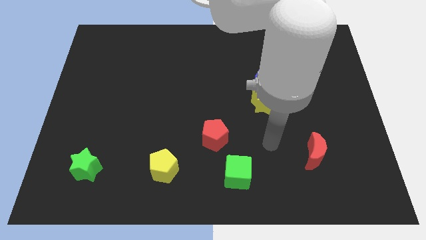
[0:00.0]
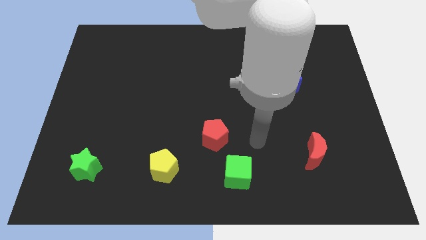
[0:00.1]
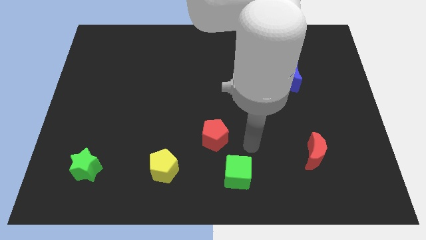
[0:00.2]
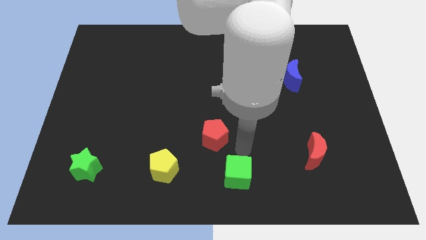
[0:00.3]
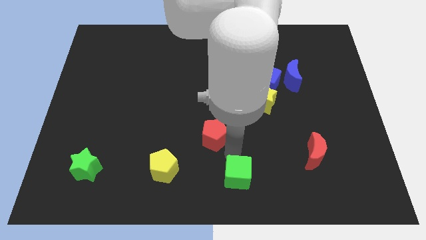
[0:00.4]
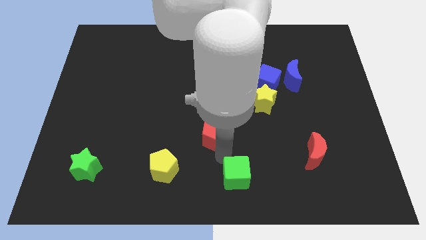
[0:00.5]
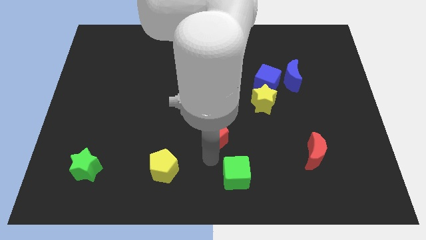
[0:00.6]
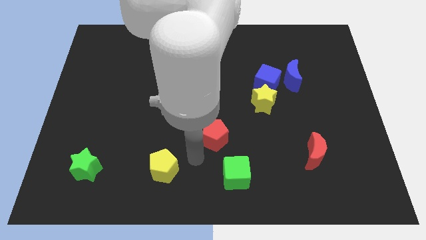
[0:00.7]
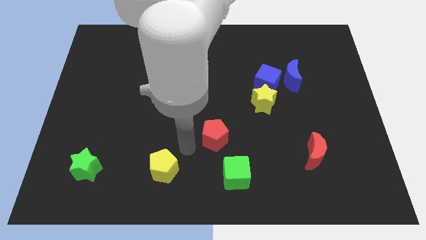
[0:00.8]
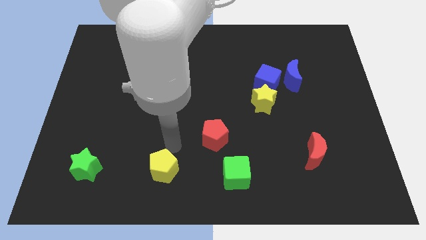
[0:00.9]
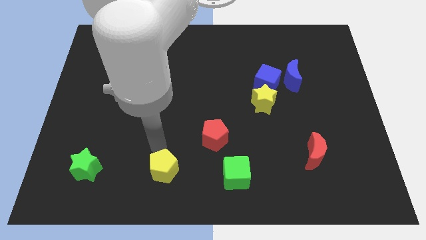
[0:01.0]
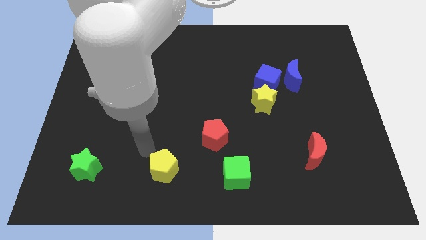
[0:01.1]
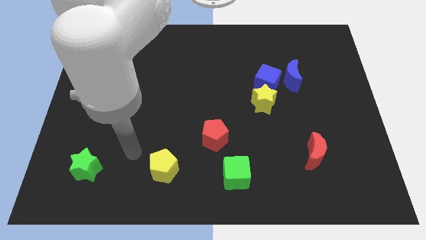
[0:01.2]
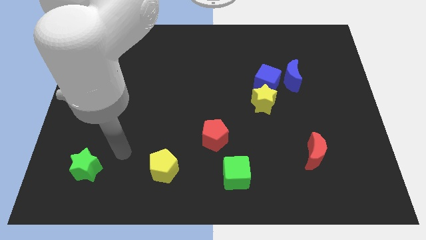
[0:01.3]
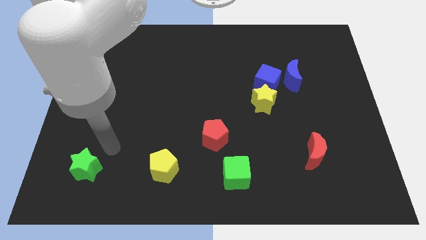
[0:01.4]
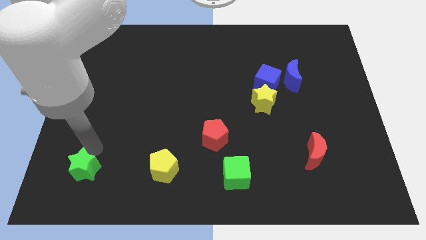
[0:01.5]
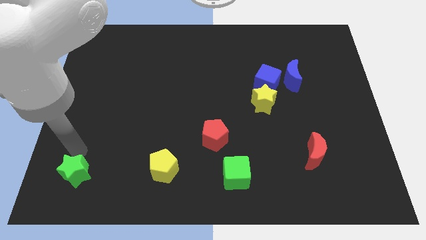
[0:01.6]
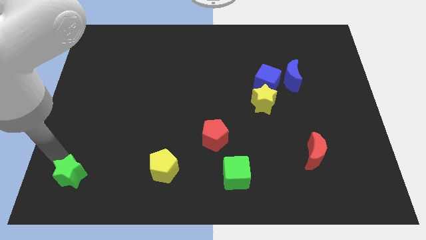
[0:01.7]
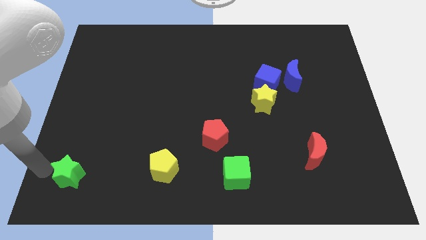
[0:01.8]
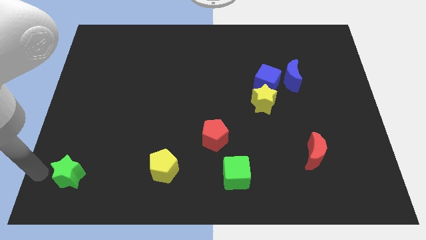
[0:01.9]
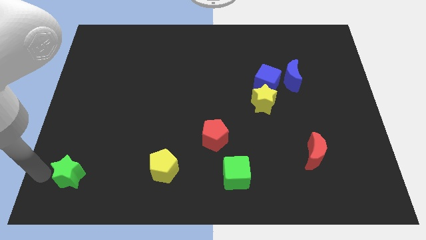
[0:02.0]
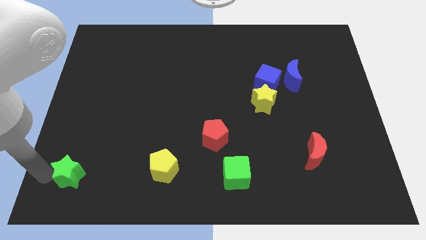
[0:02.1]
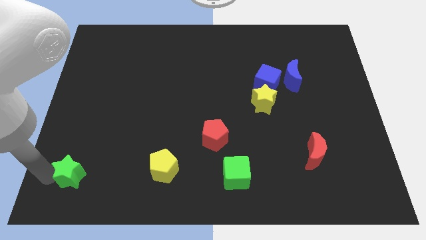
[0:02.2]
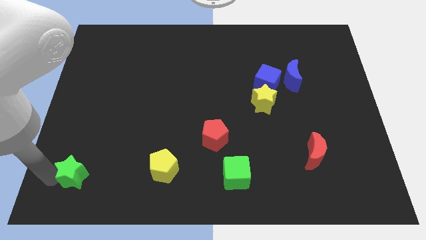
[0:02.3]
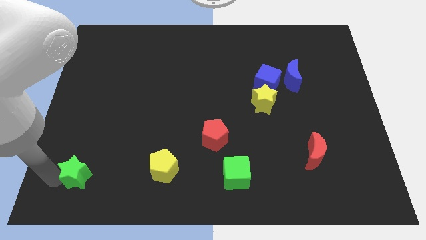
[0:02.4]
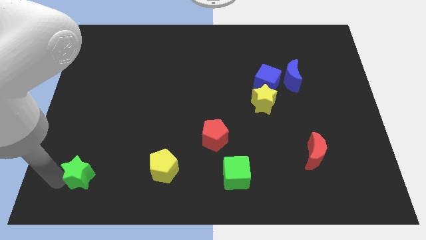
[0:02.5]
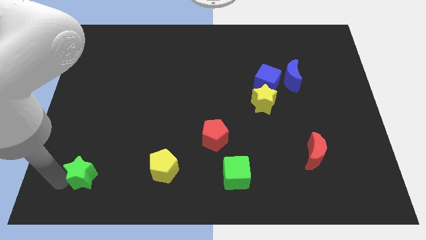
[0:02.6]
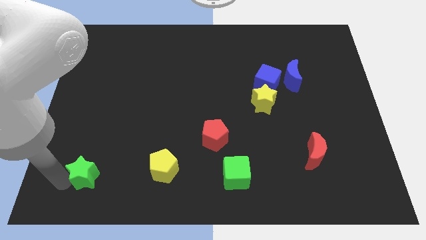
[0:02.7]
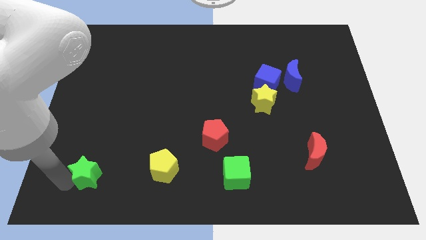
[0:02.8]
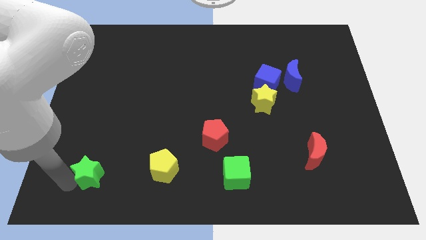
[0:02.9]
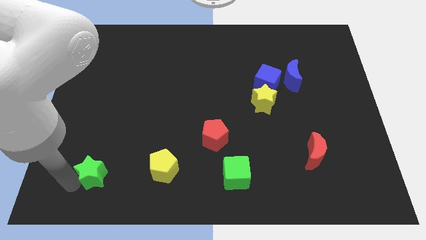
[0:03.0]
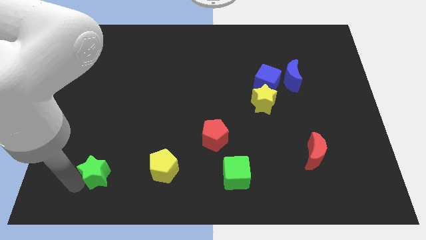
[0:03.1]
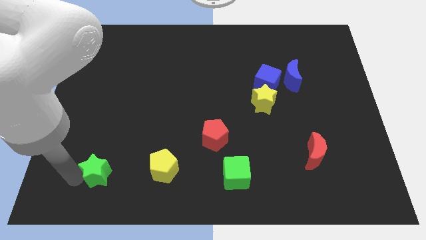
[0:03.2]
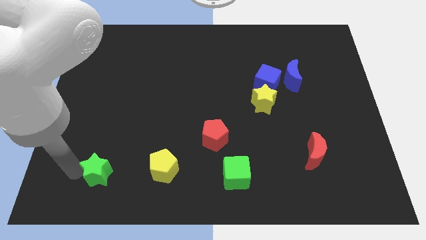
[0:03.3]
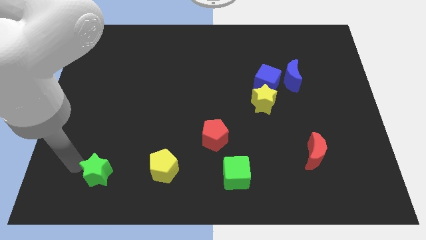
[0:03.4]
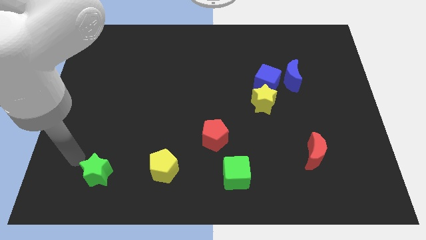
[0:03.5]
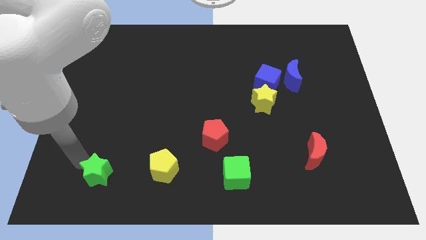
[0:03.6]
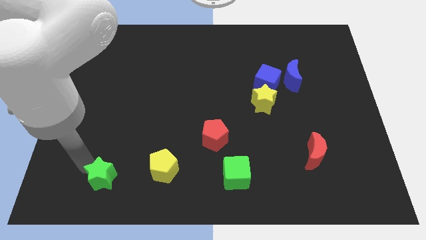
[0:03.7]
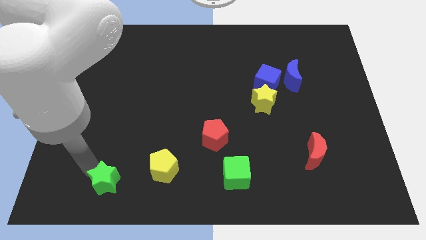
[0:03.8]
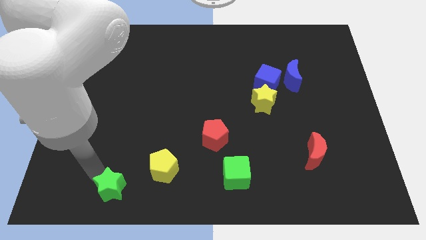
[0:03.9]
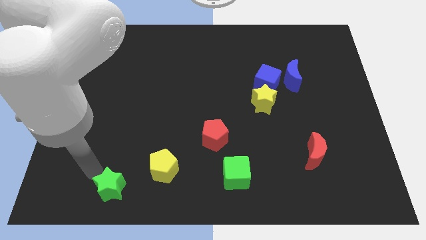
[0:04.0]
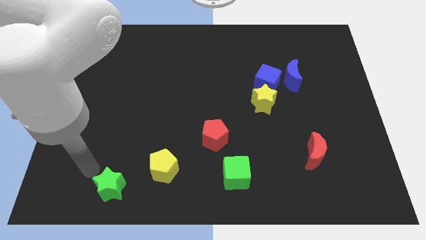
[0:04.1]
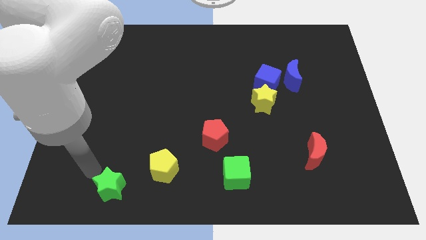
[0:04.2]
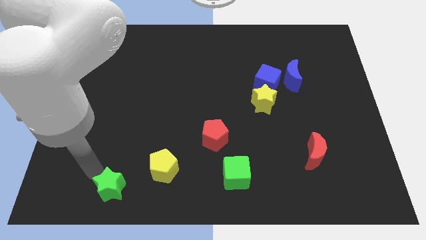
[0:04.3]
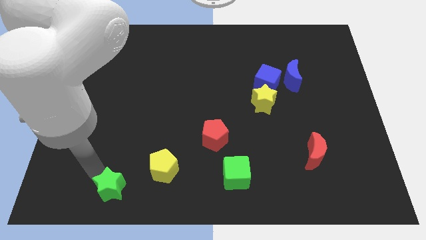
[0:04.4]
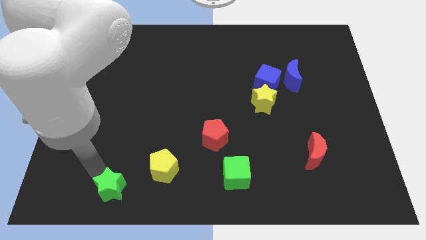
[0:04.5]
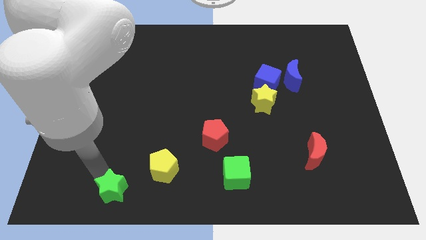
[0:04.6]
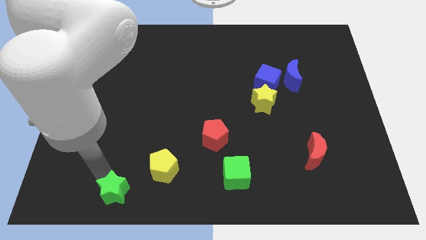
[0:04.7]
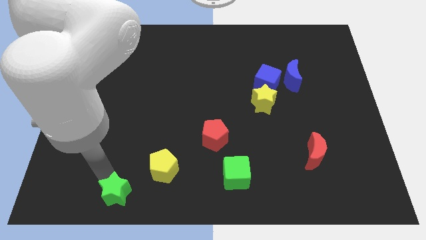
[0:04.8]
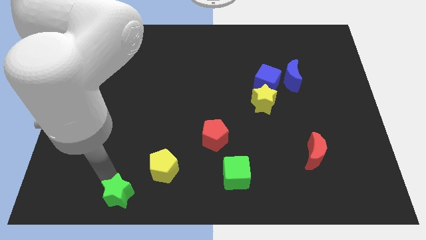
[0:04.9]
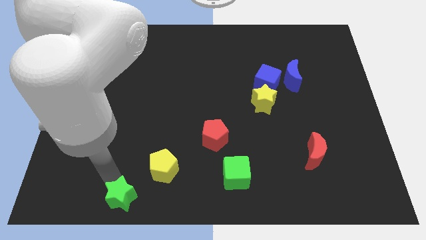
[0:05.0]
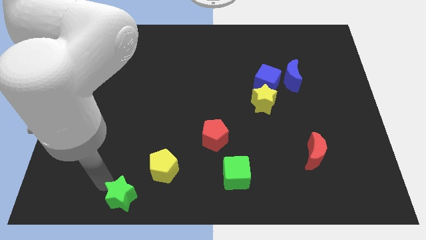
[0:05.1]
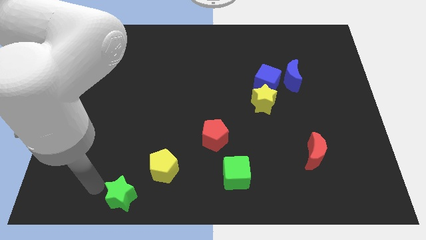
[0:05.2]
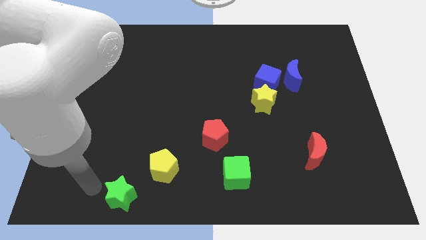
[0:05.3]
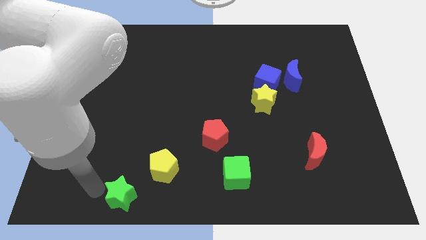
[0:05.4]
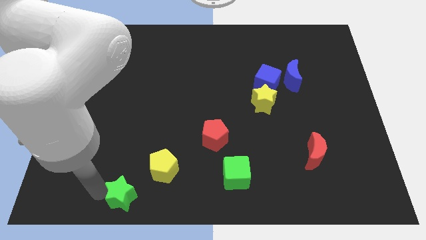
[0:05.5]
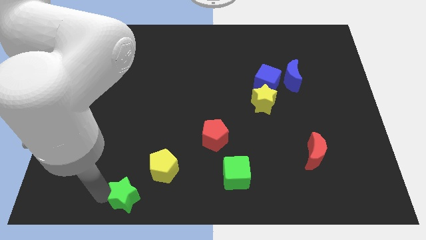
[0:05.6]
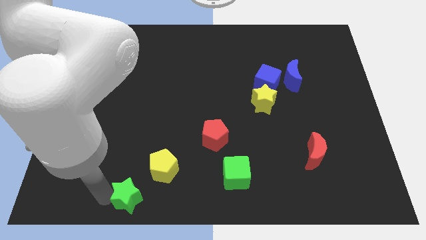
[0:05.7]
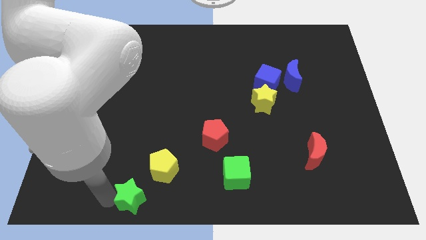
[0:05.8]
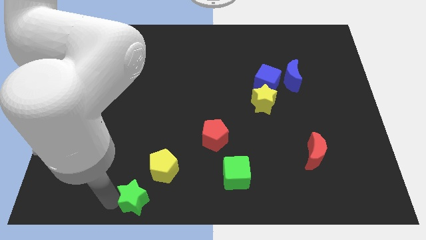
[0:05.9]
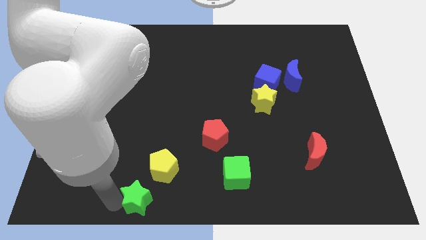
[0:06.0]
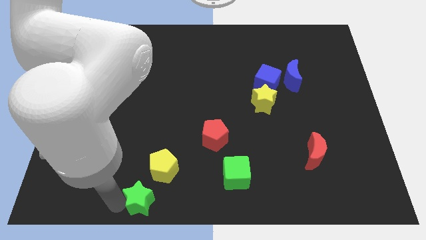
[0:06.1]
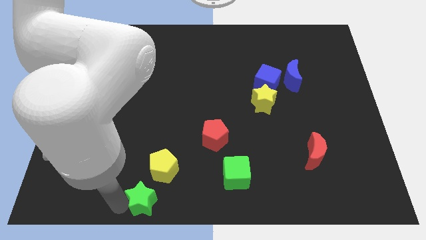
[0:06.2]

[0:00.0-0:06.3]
slide the green star to the bottom side

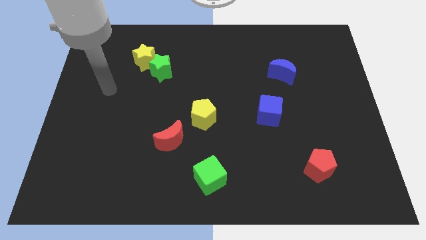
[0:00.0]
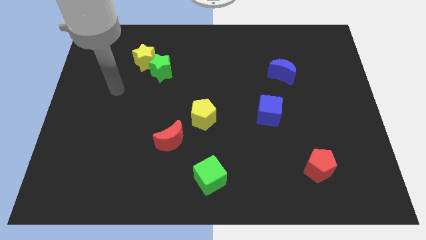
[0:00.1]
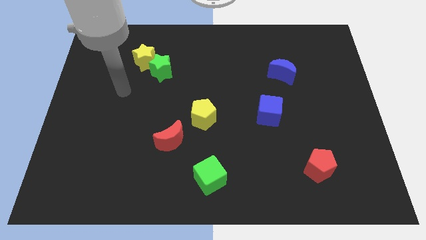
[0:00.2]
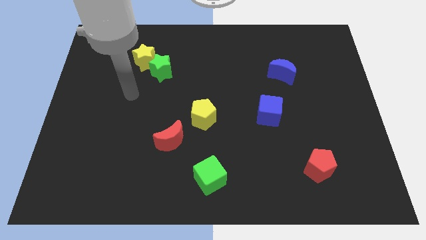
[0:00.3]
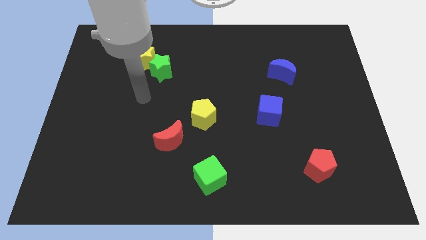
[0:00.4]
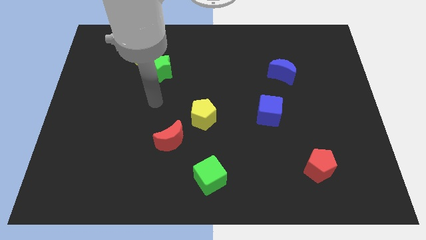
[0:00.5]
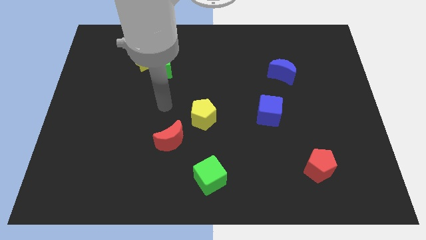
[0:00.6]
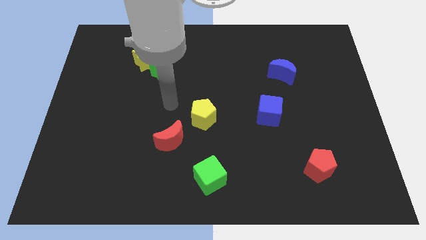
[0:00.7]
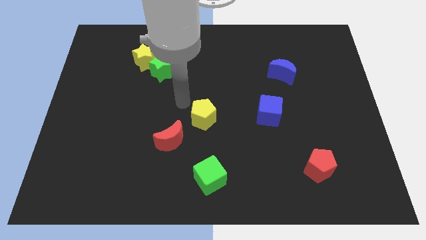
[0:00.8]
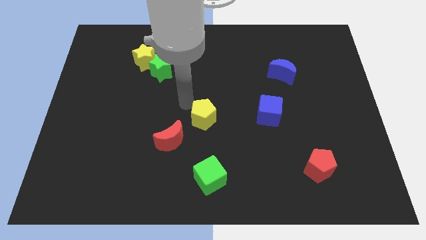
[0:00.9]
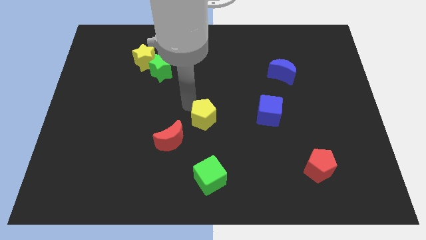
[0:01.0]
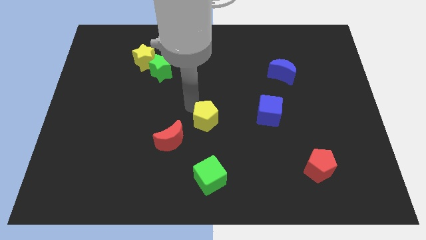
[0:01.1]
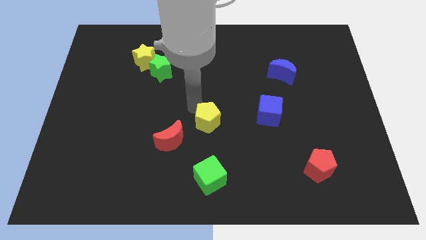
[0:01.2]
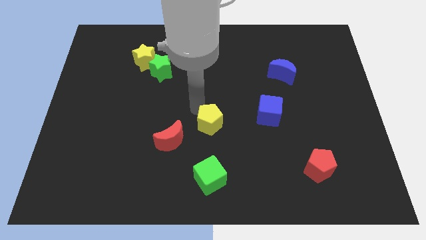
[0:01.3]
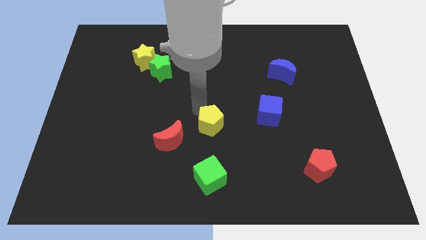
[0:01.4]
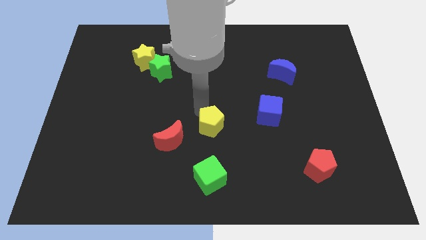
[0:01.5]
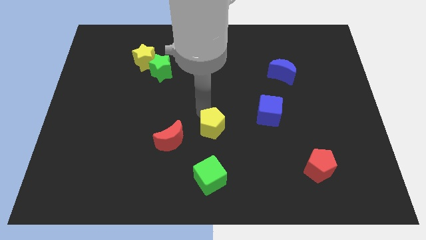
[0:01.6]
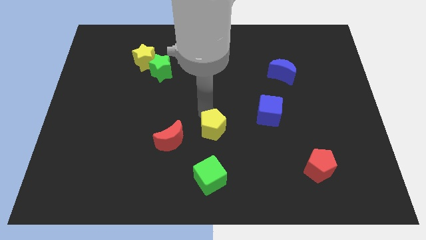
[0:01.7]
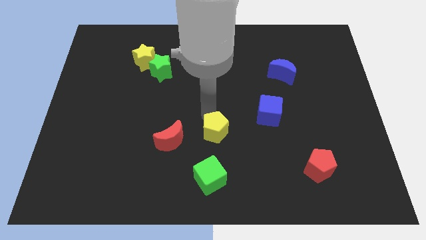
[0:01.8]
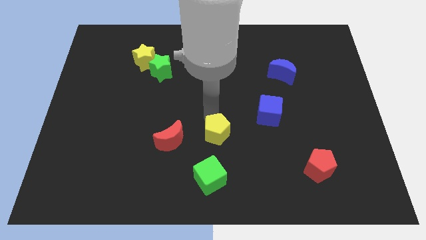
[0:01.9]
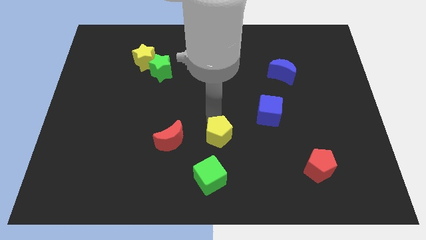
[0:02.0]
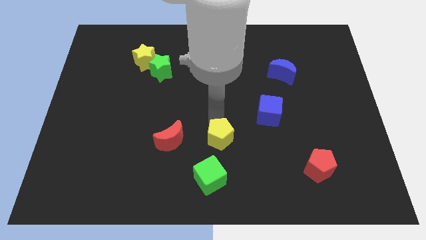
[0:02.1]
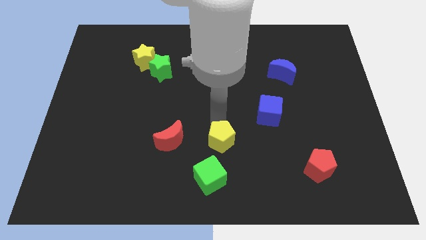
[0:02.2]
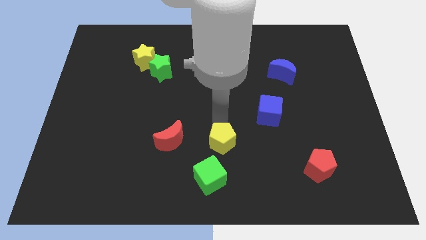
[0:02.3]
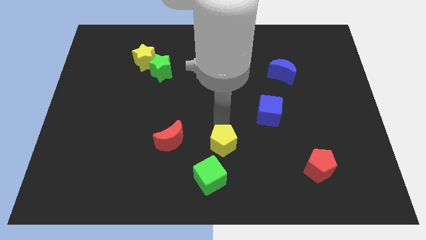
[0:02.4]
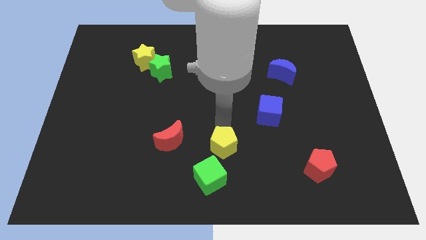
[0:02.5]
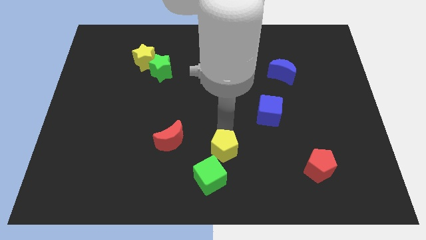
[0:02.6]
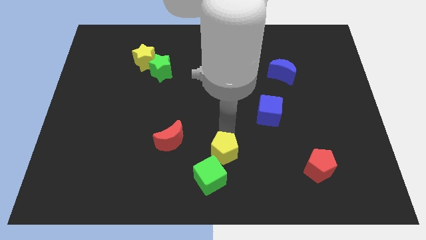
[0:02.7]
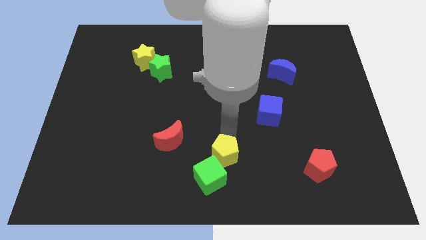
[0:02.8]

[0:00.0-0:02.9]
slide the yellow pentagon to the bottom
